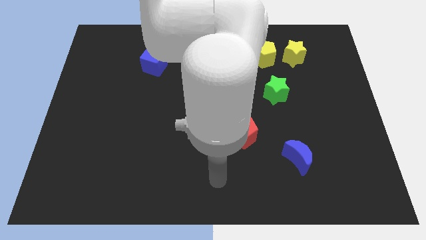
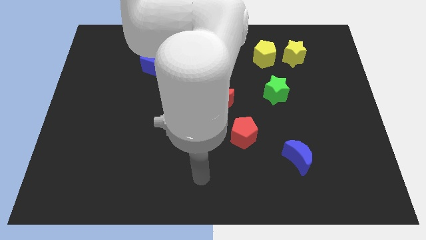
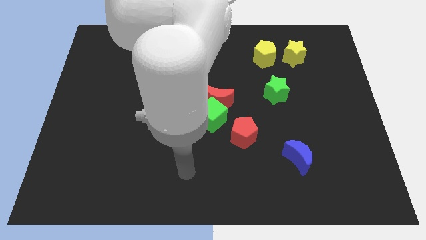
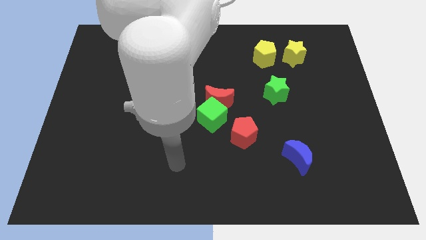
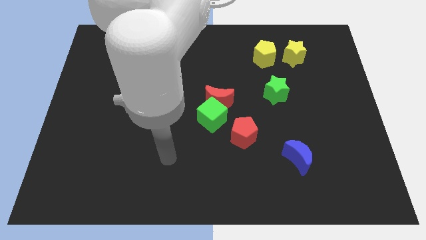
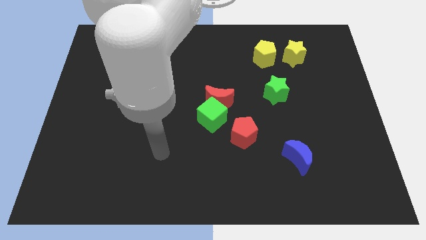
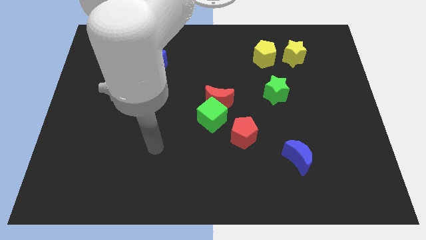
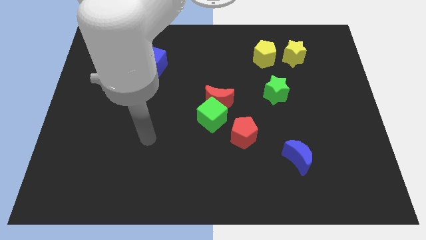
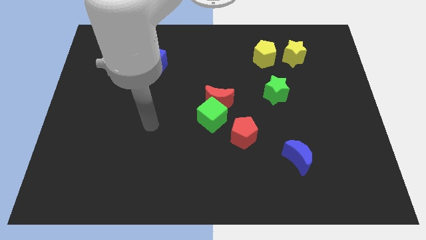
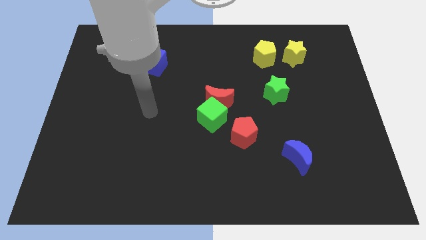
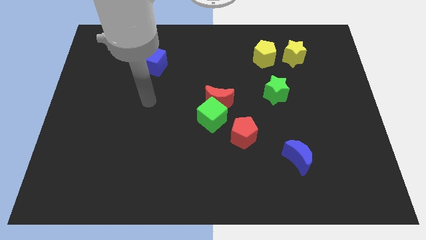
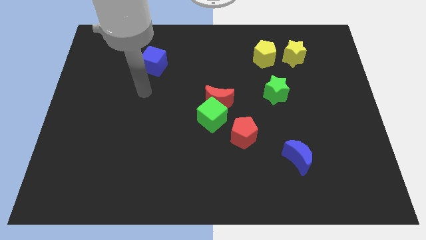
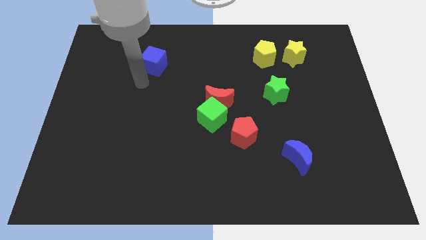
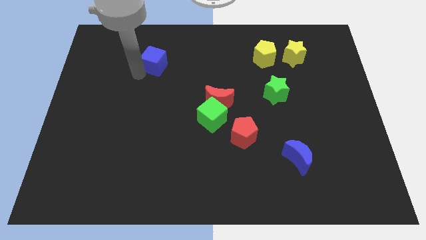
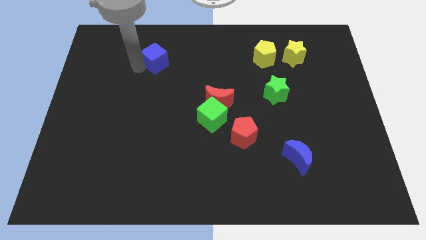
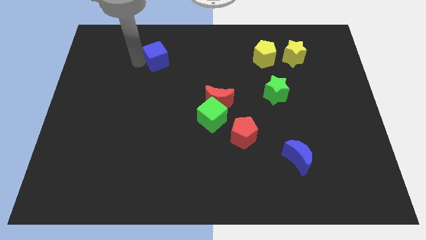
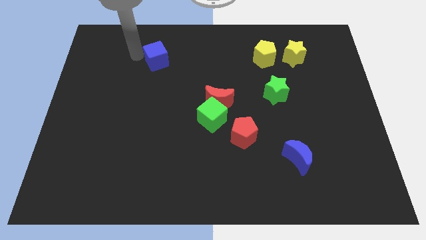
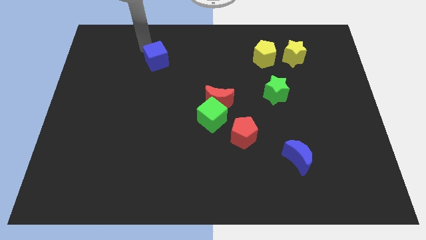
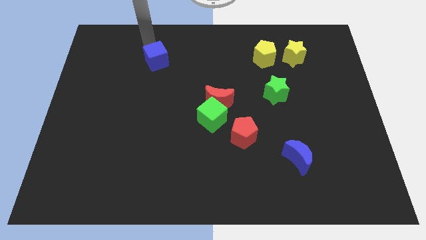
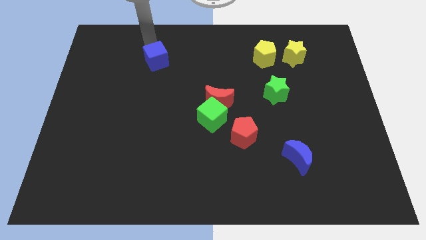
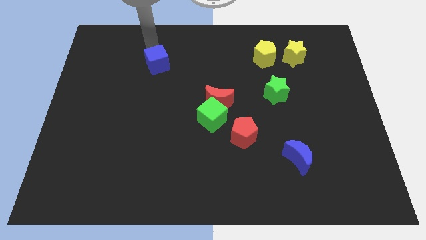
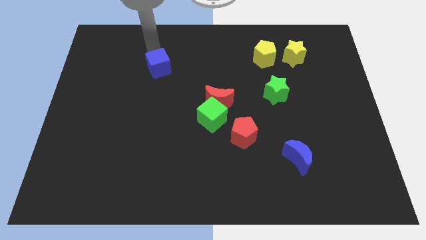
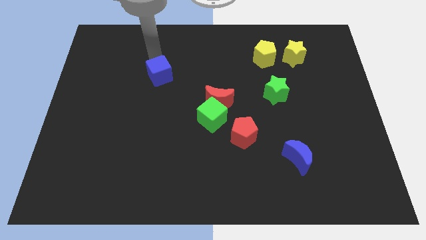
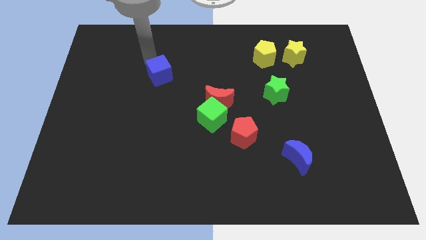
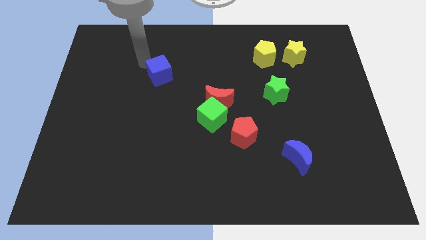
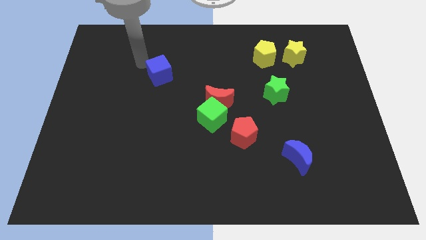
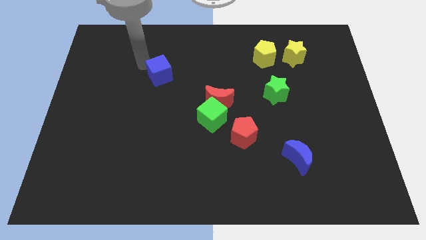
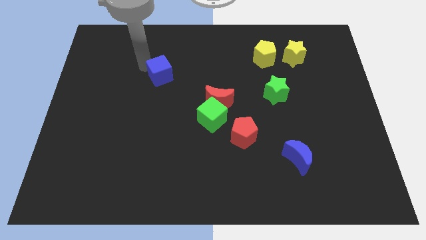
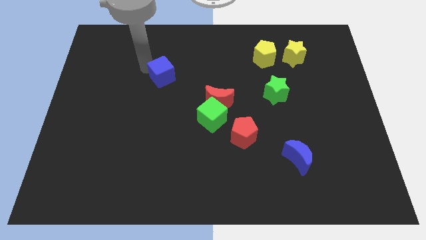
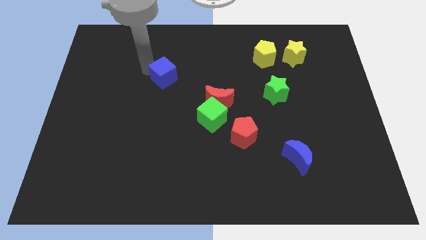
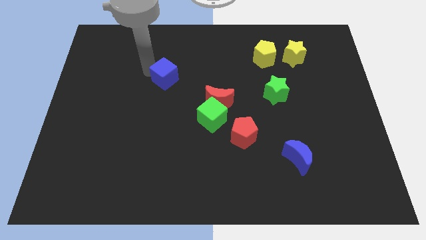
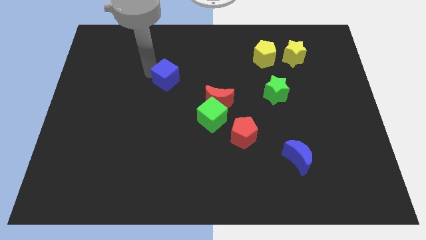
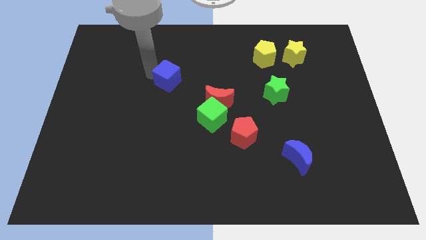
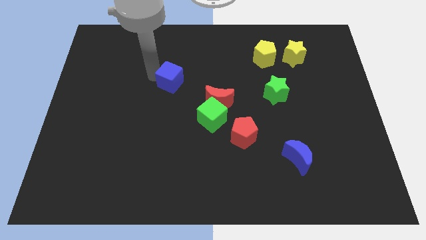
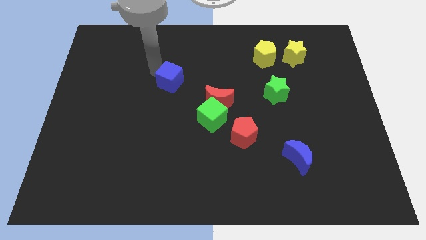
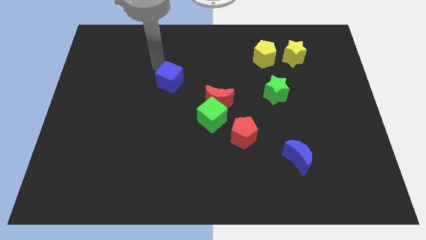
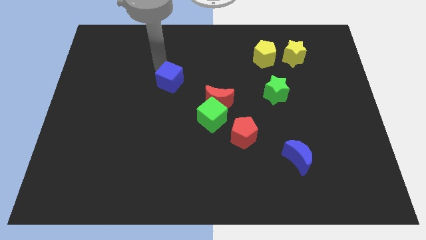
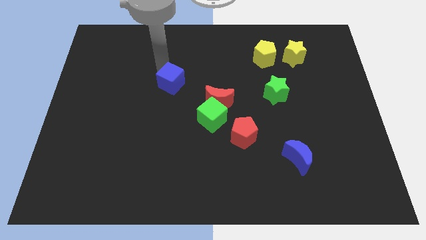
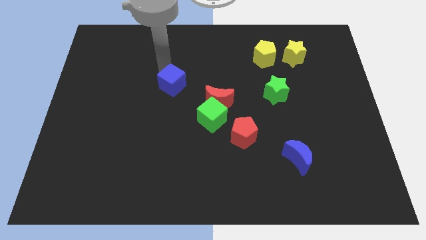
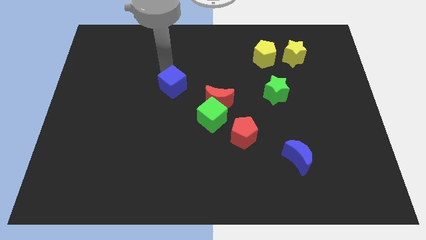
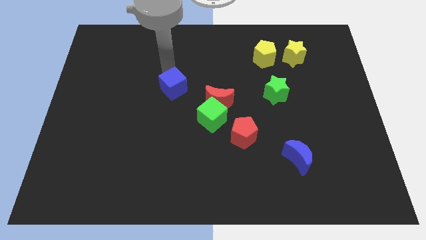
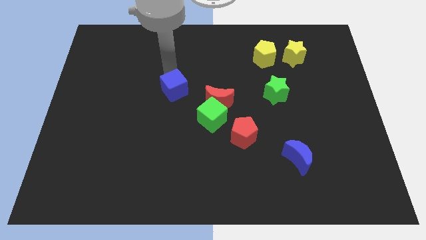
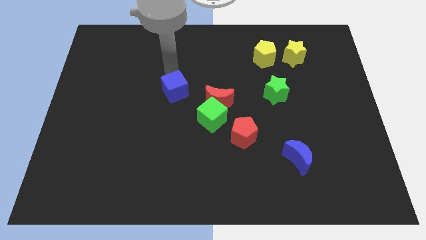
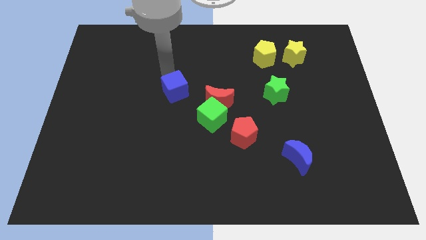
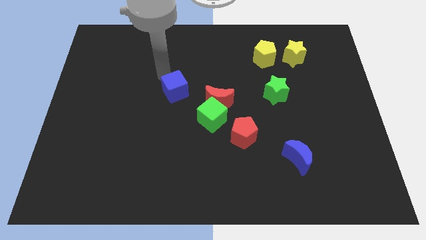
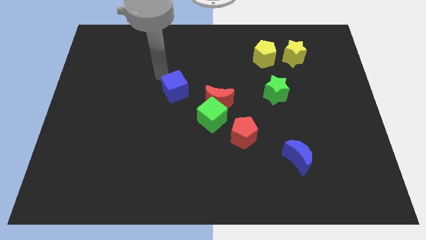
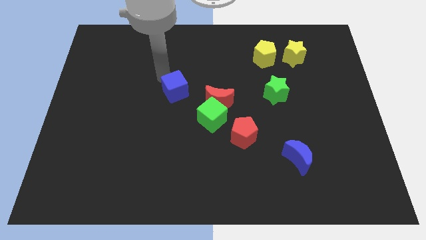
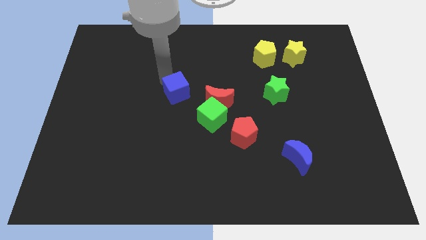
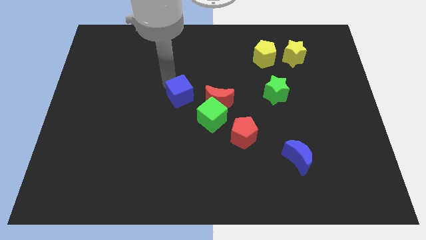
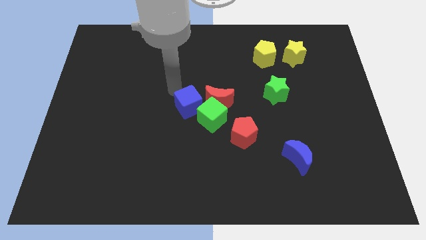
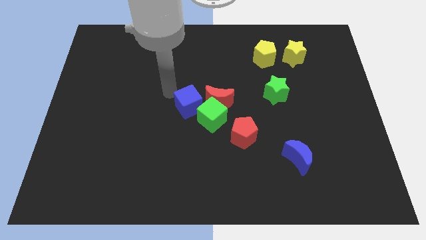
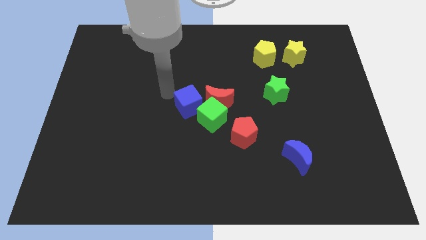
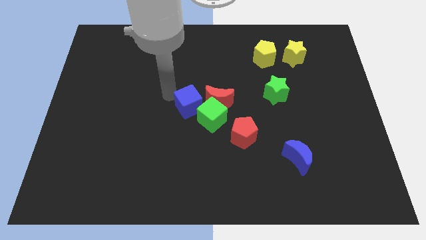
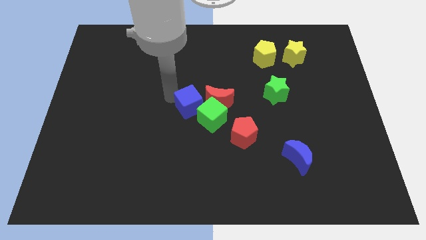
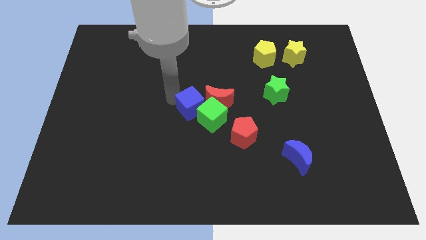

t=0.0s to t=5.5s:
put the blue cube to the green cube

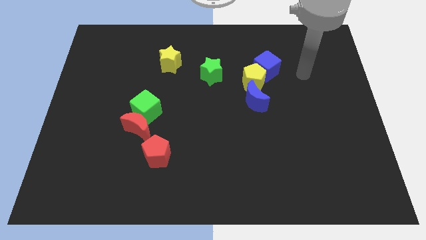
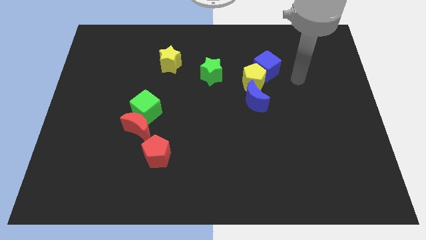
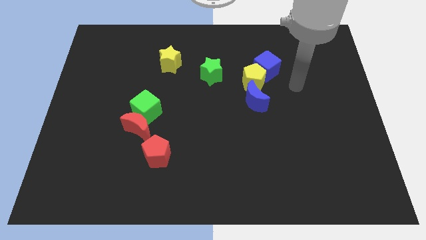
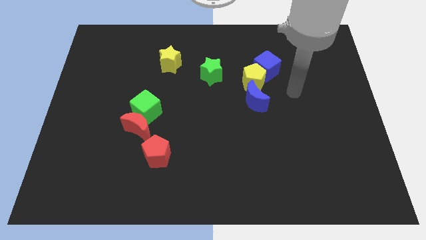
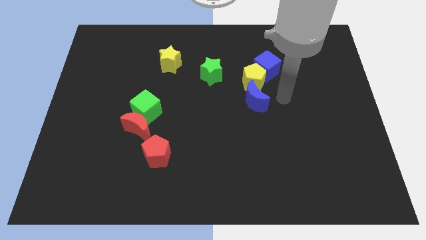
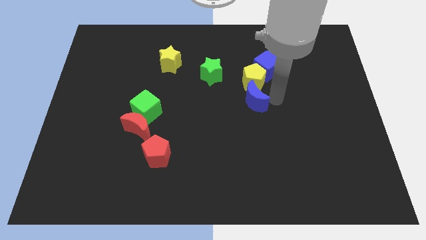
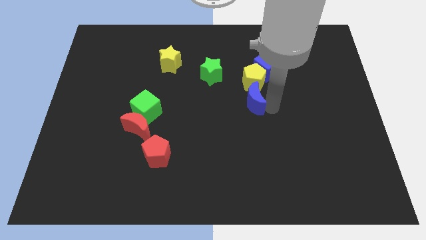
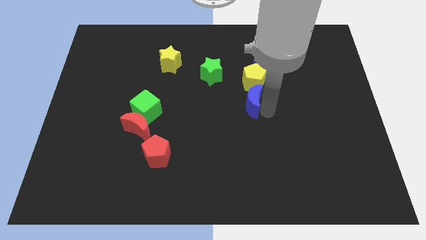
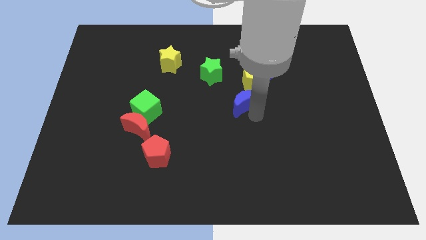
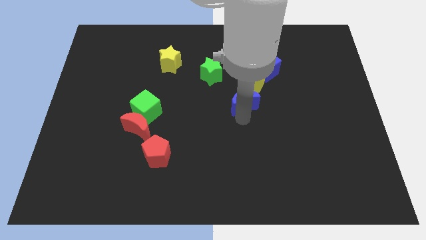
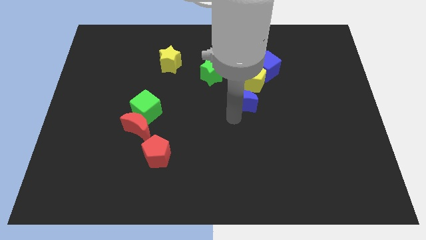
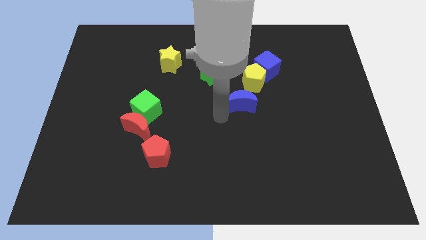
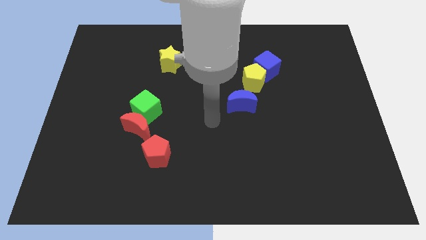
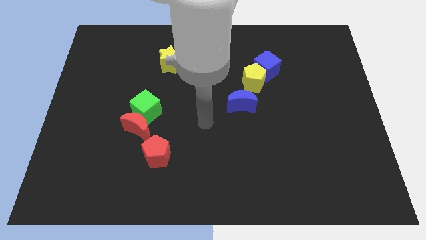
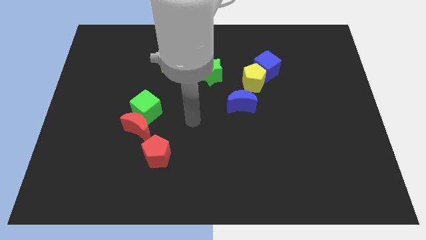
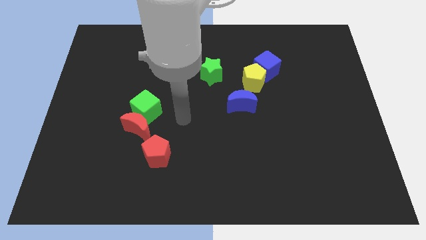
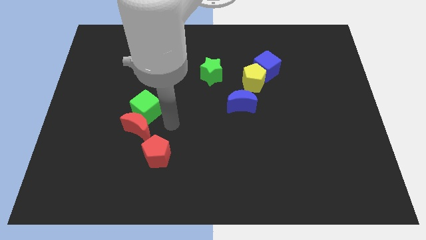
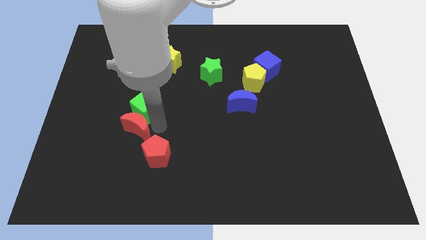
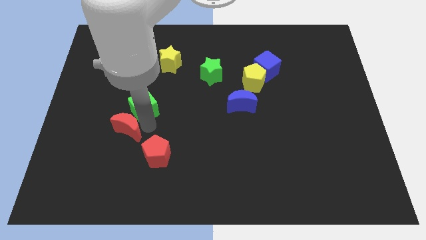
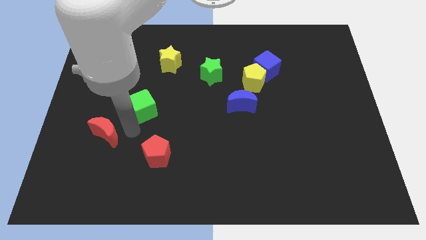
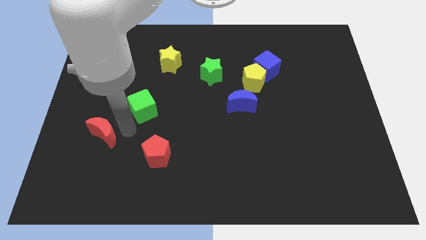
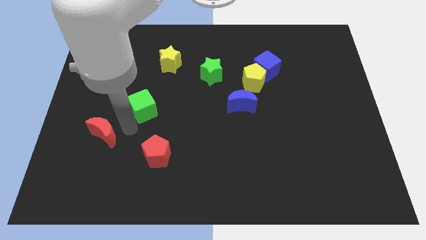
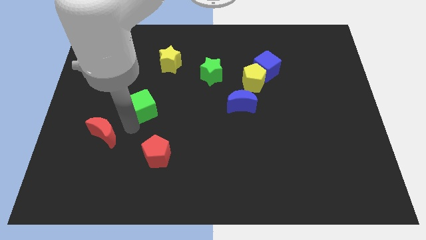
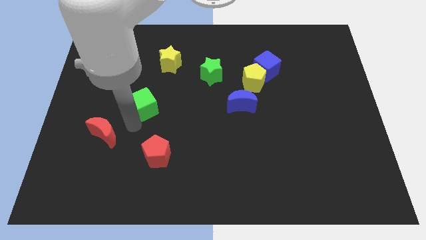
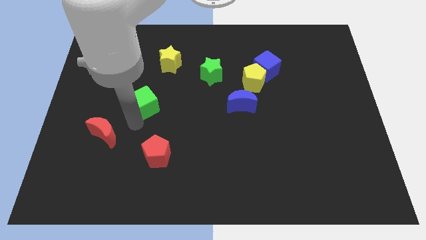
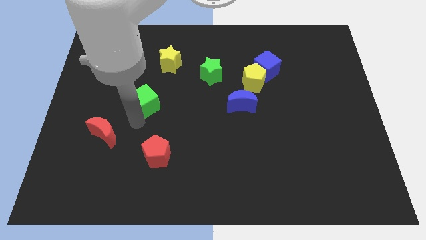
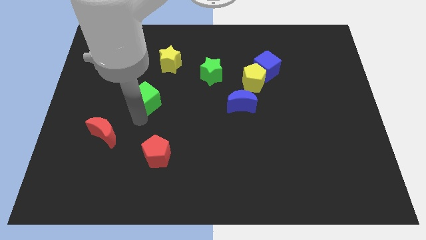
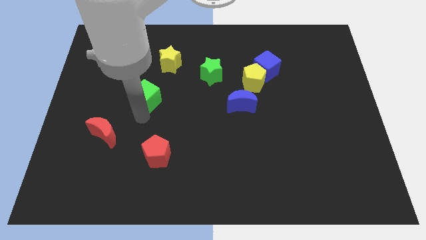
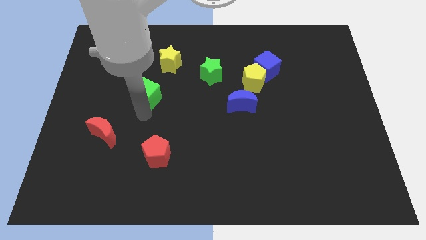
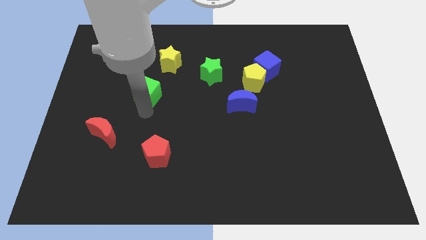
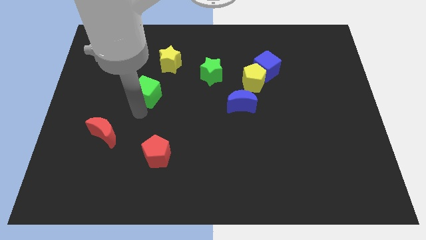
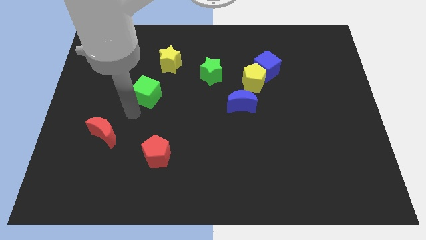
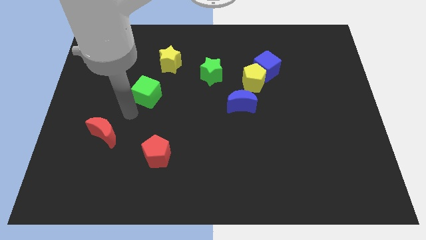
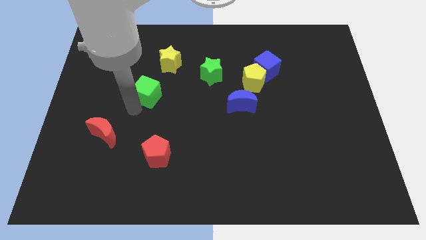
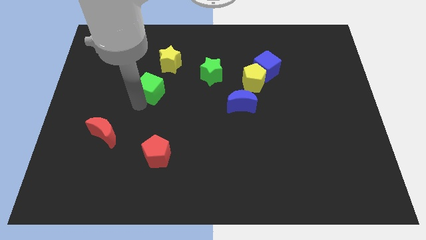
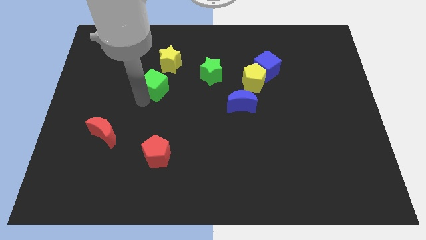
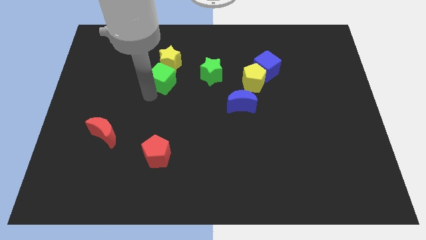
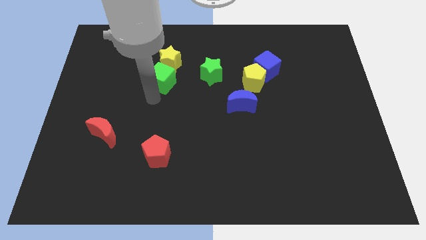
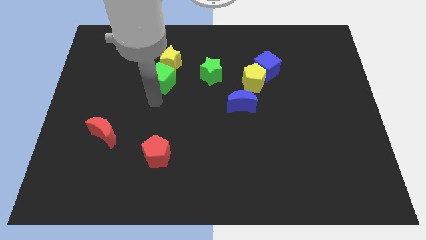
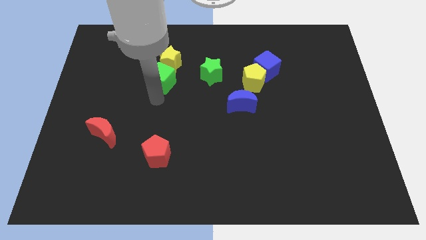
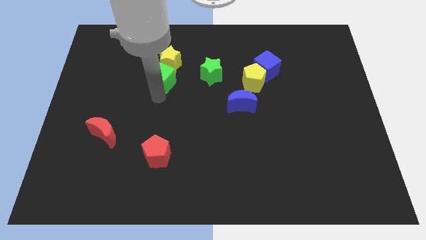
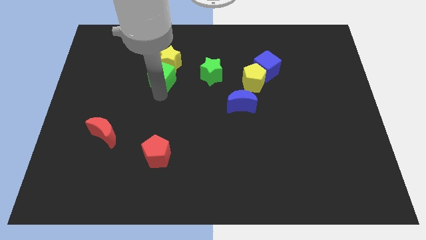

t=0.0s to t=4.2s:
put the green cube next to the yellow star
